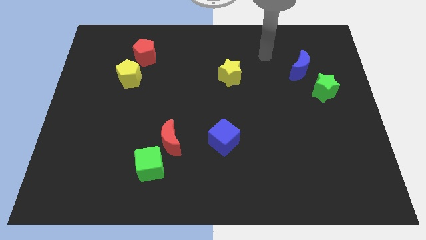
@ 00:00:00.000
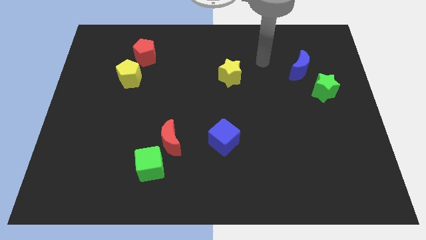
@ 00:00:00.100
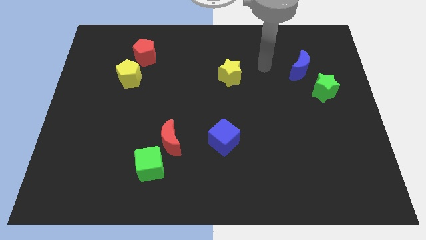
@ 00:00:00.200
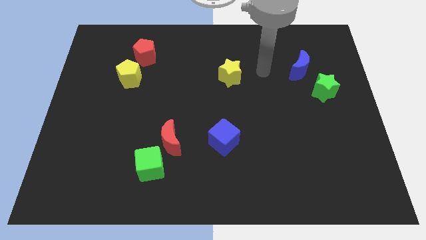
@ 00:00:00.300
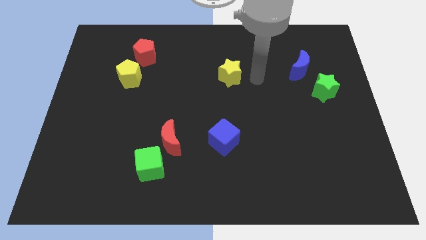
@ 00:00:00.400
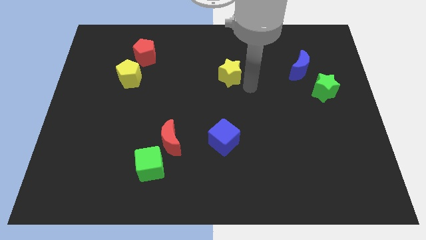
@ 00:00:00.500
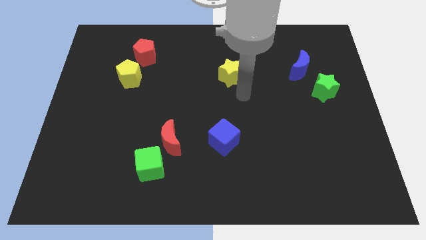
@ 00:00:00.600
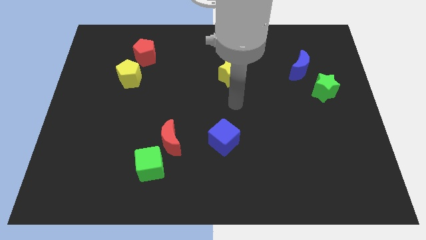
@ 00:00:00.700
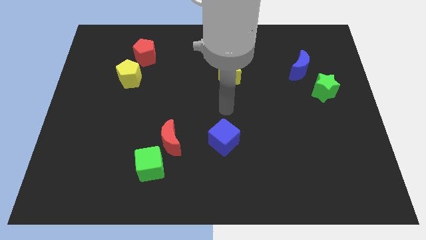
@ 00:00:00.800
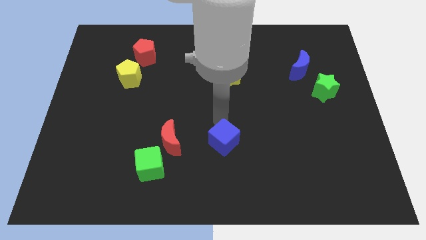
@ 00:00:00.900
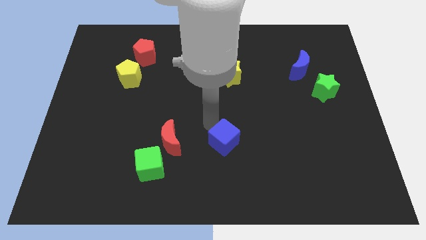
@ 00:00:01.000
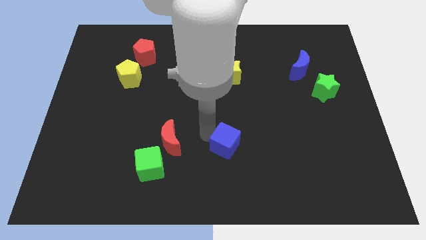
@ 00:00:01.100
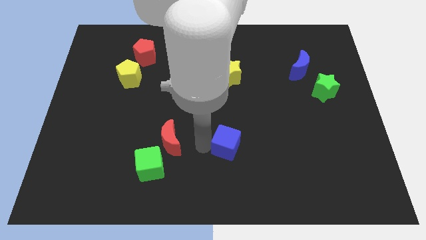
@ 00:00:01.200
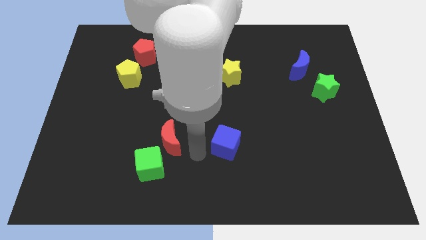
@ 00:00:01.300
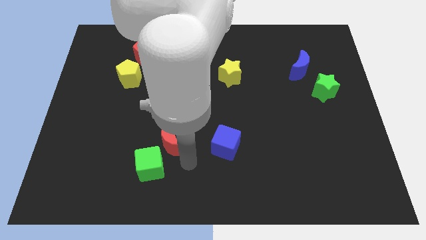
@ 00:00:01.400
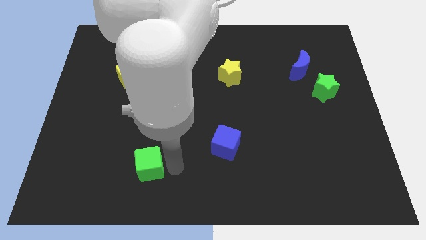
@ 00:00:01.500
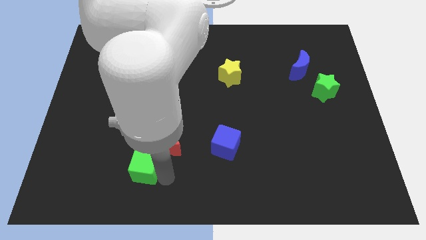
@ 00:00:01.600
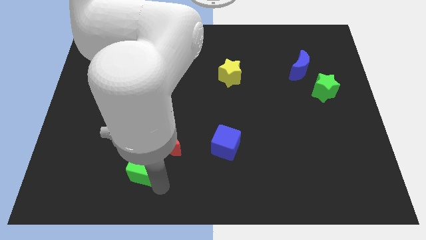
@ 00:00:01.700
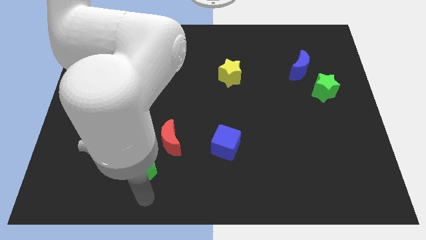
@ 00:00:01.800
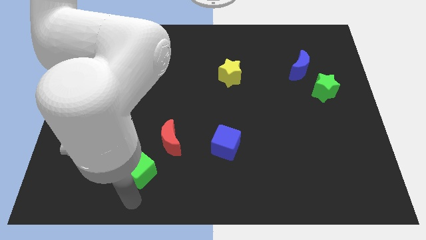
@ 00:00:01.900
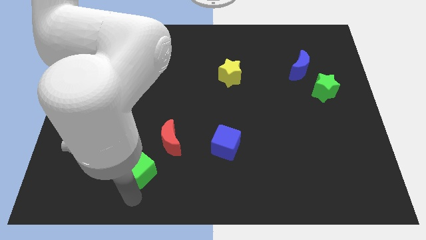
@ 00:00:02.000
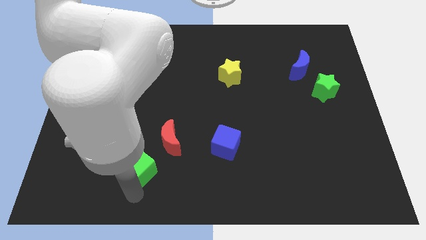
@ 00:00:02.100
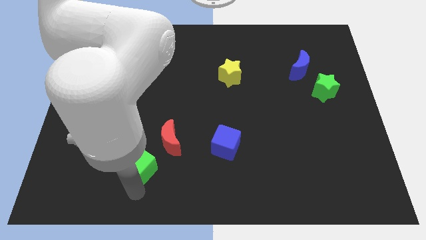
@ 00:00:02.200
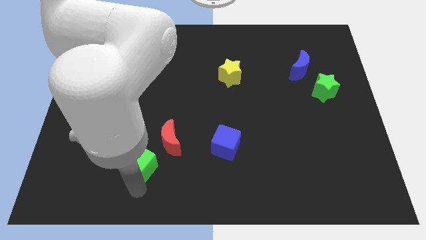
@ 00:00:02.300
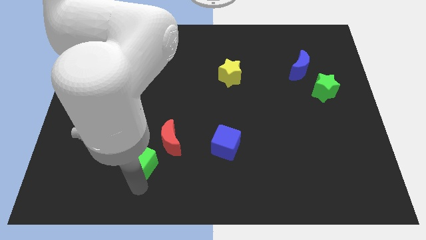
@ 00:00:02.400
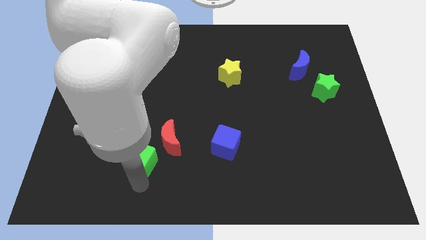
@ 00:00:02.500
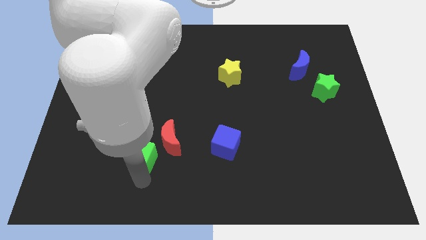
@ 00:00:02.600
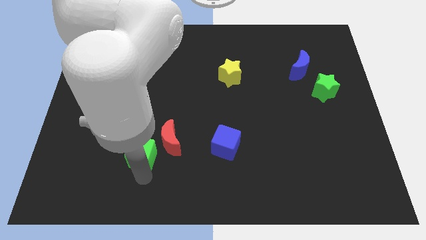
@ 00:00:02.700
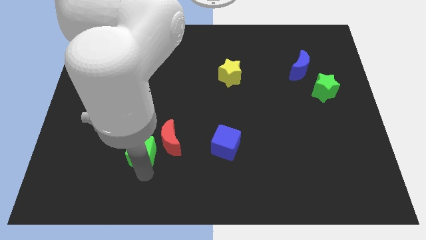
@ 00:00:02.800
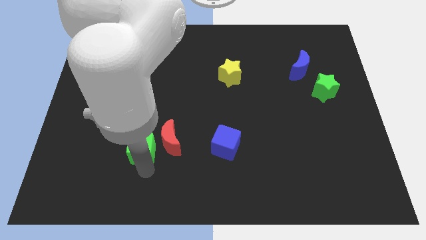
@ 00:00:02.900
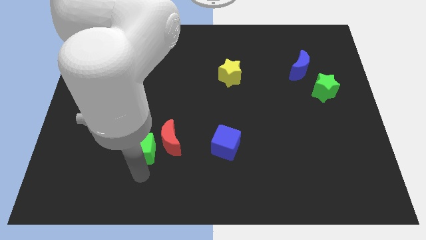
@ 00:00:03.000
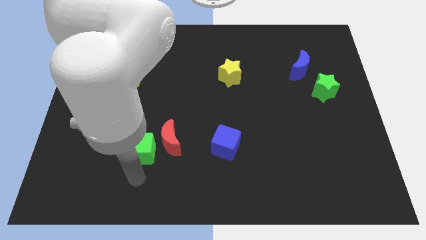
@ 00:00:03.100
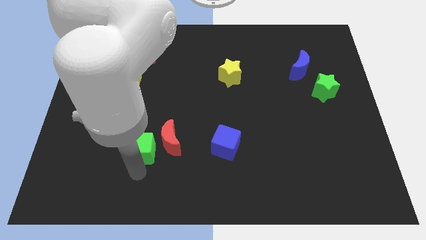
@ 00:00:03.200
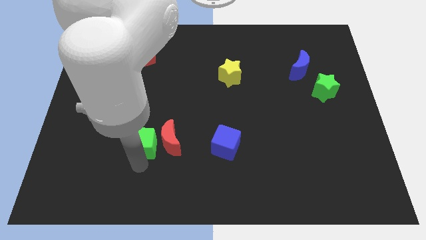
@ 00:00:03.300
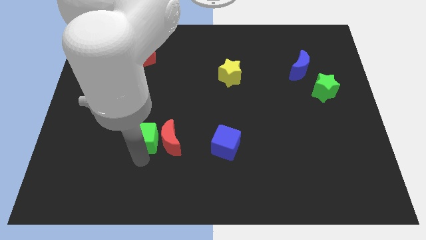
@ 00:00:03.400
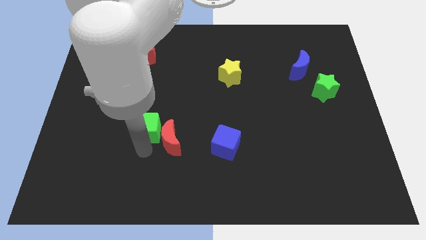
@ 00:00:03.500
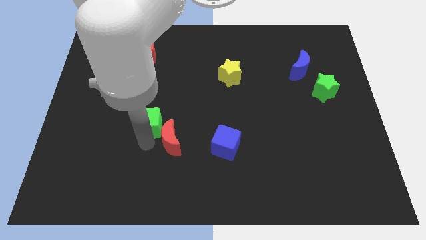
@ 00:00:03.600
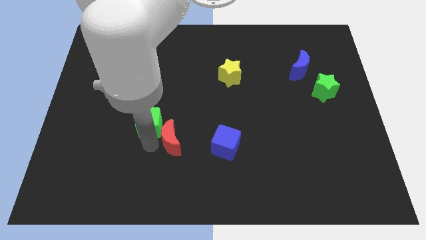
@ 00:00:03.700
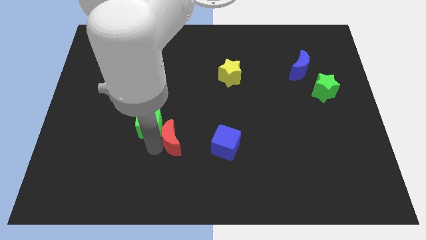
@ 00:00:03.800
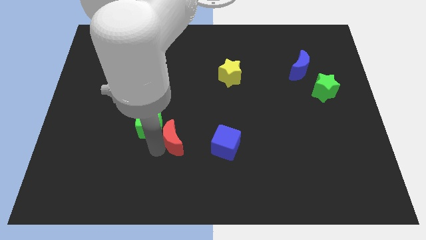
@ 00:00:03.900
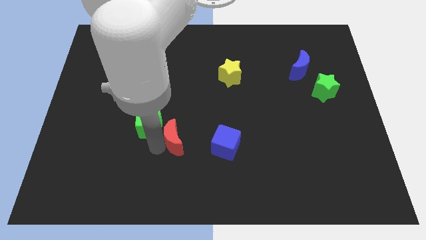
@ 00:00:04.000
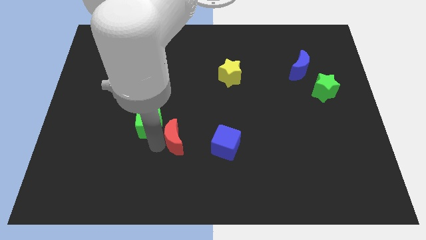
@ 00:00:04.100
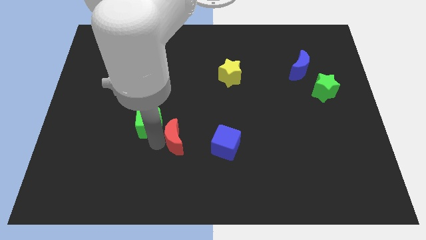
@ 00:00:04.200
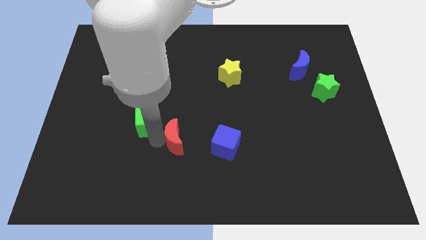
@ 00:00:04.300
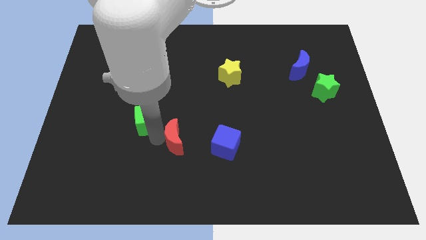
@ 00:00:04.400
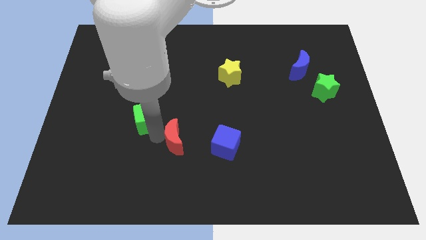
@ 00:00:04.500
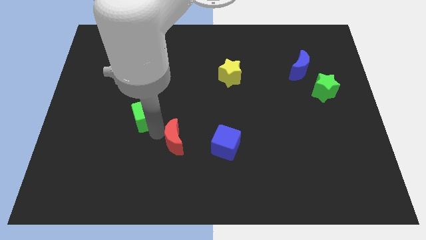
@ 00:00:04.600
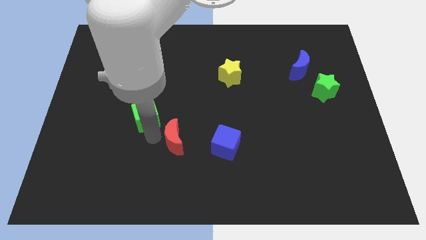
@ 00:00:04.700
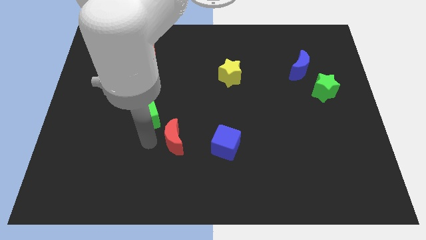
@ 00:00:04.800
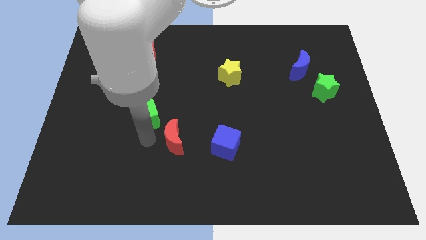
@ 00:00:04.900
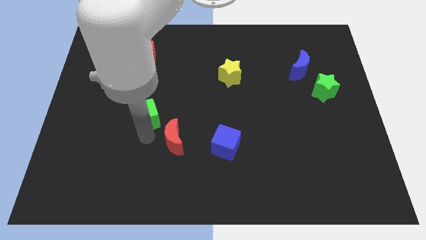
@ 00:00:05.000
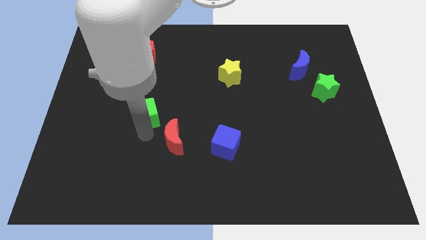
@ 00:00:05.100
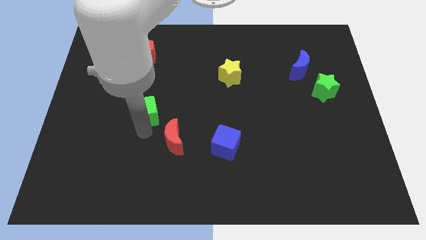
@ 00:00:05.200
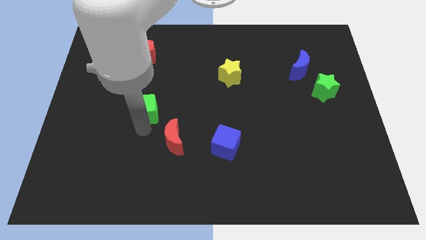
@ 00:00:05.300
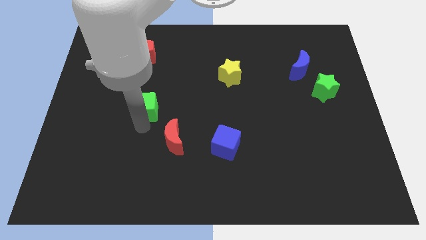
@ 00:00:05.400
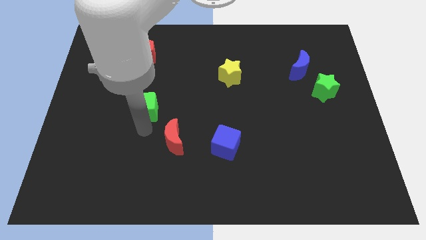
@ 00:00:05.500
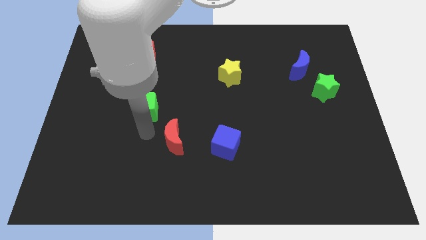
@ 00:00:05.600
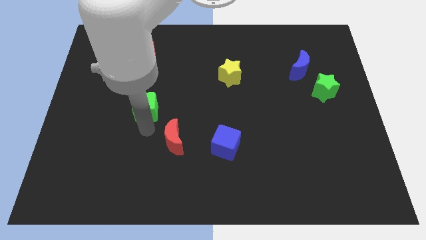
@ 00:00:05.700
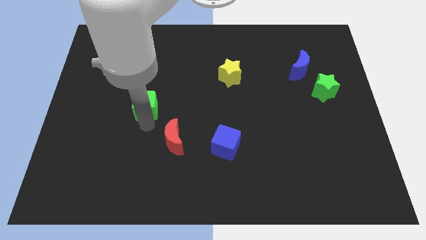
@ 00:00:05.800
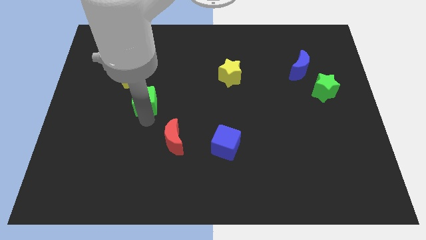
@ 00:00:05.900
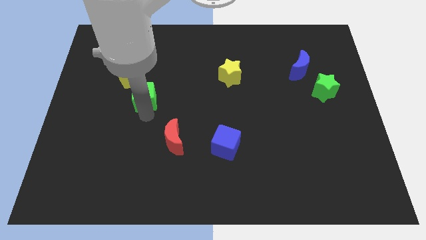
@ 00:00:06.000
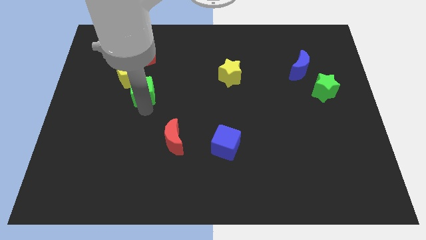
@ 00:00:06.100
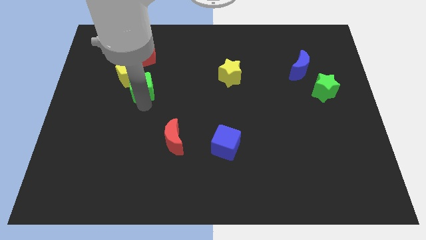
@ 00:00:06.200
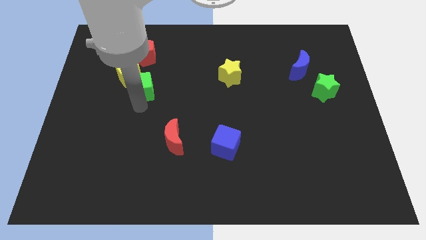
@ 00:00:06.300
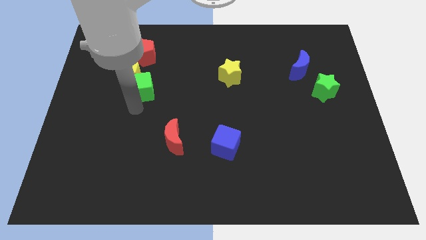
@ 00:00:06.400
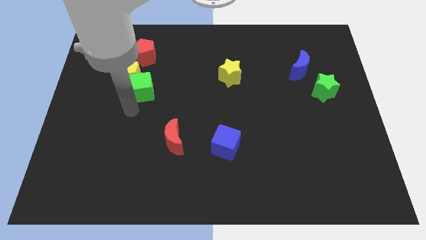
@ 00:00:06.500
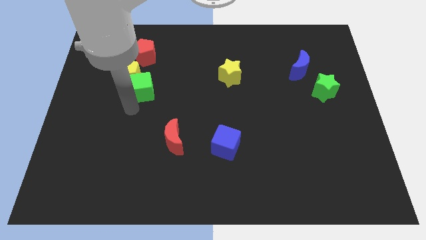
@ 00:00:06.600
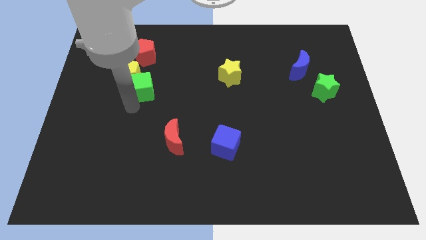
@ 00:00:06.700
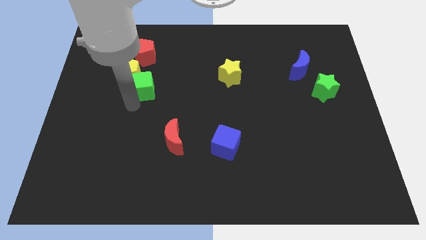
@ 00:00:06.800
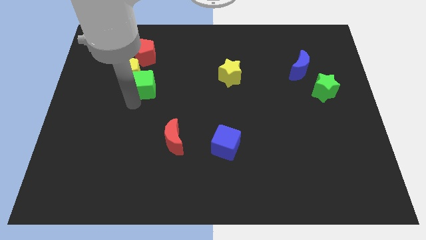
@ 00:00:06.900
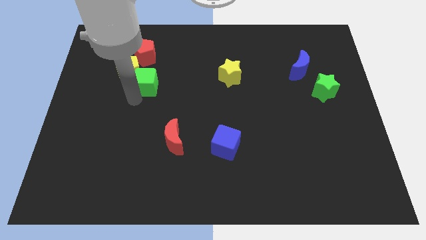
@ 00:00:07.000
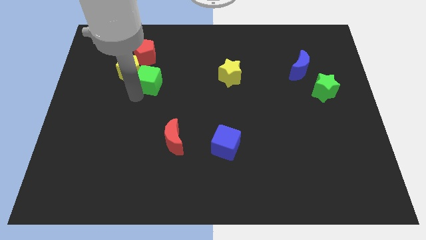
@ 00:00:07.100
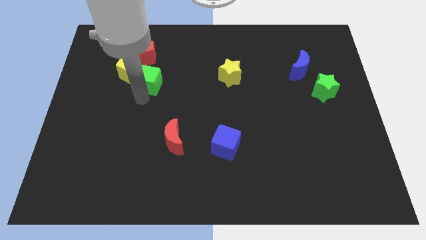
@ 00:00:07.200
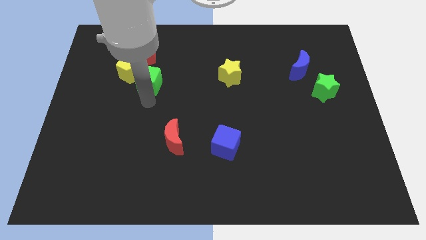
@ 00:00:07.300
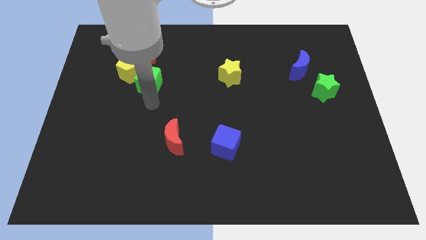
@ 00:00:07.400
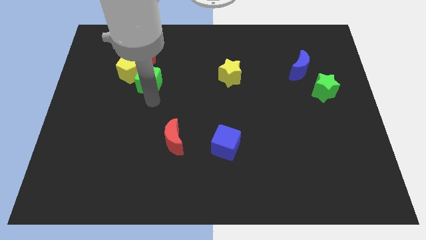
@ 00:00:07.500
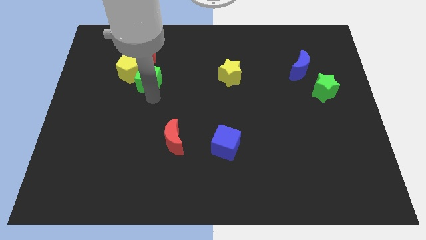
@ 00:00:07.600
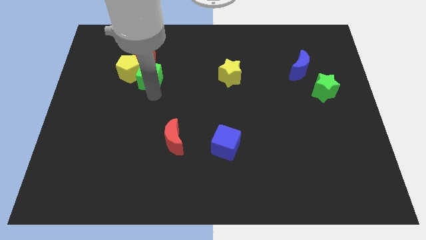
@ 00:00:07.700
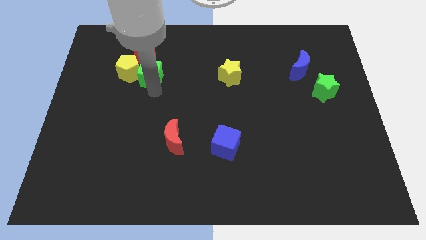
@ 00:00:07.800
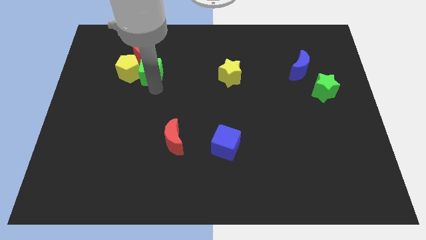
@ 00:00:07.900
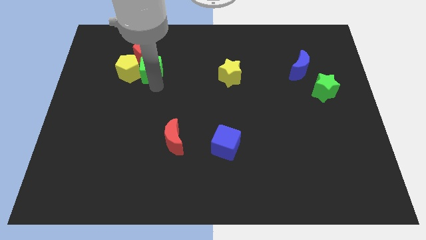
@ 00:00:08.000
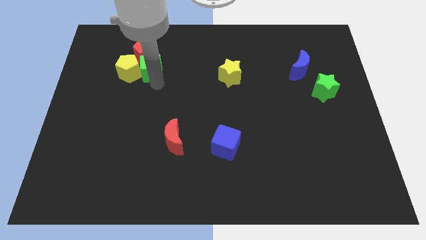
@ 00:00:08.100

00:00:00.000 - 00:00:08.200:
slide the green cube close to the red pentagon
